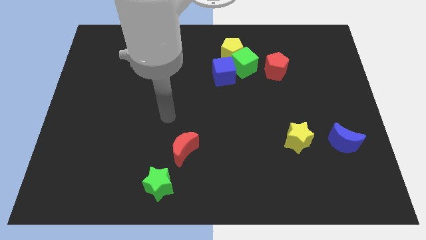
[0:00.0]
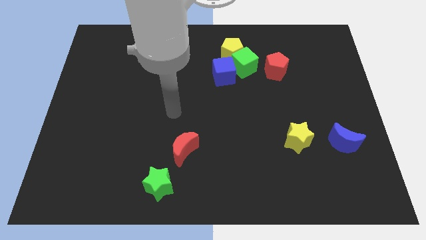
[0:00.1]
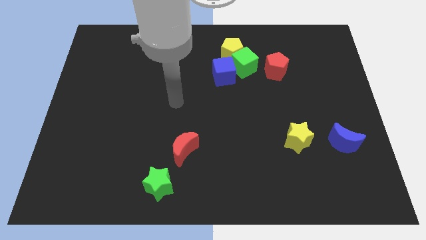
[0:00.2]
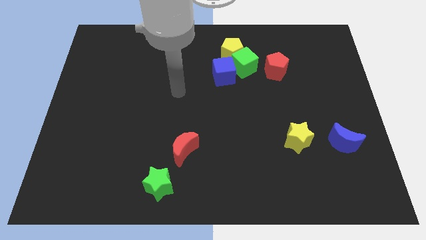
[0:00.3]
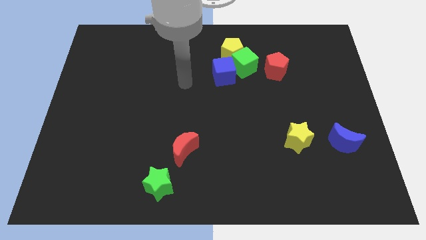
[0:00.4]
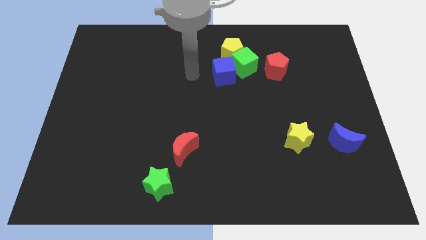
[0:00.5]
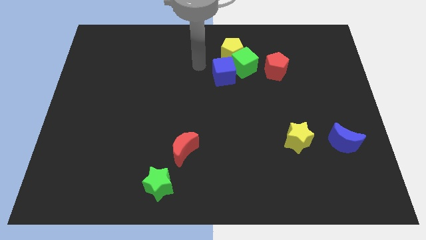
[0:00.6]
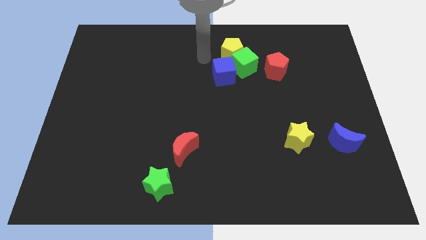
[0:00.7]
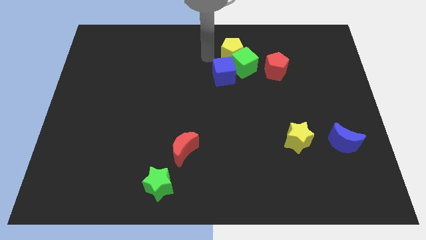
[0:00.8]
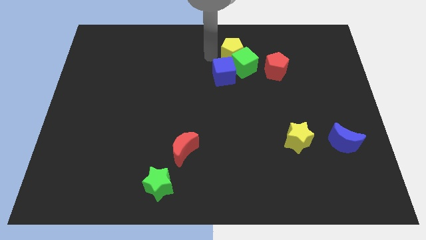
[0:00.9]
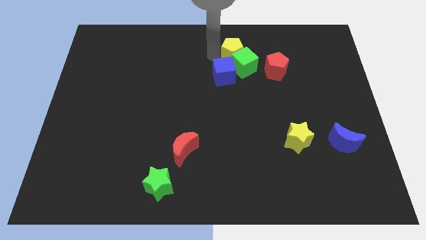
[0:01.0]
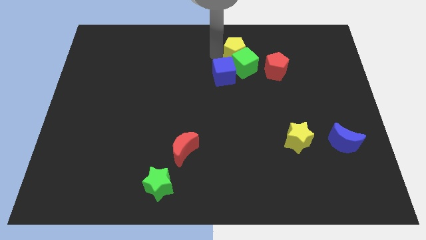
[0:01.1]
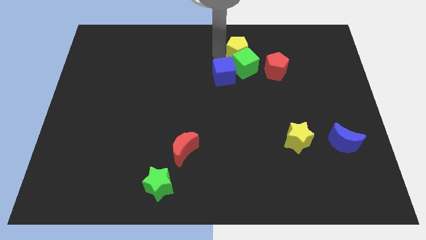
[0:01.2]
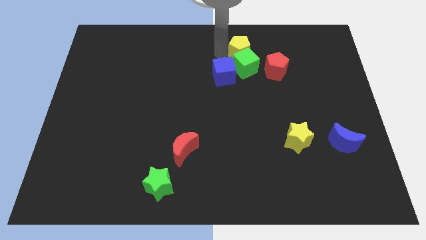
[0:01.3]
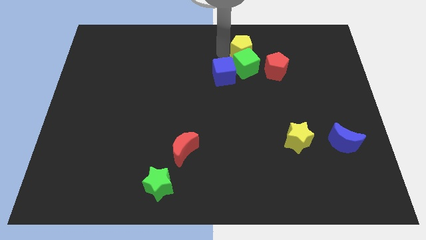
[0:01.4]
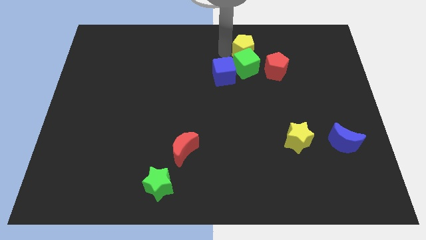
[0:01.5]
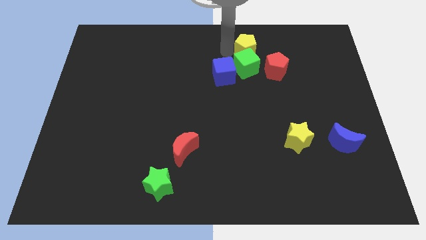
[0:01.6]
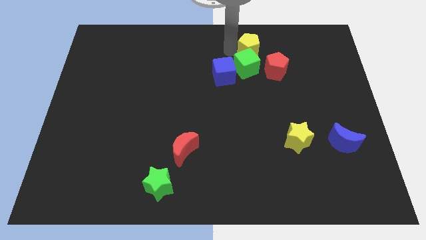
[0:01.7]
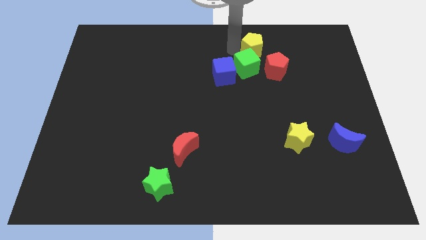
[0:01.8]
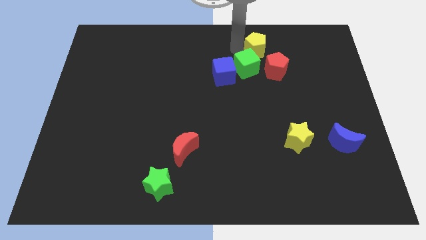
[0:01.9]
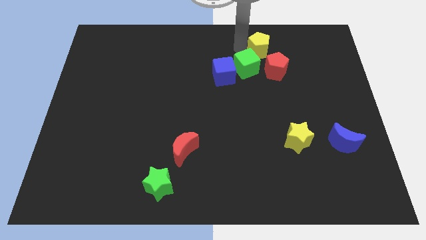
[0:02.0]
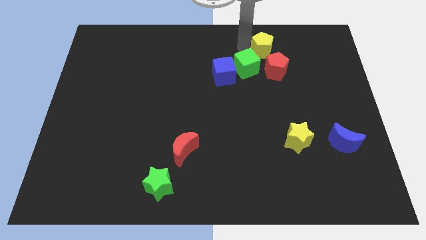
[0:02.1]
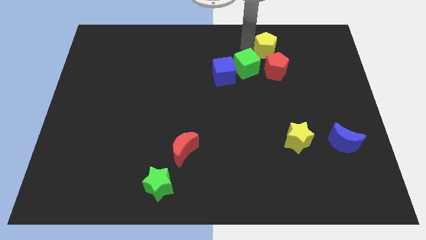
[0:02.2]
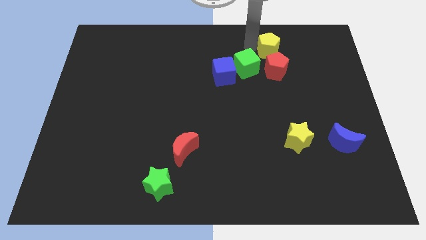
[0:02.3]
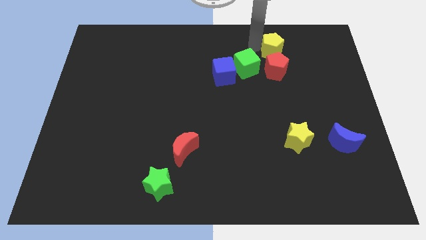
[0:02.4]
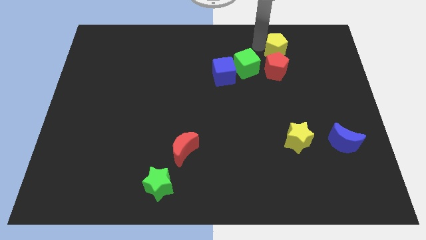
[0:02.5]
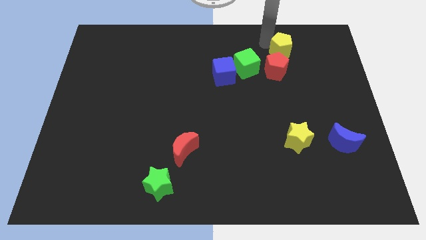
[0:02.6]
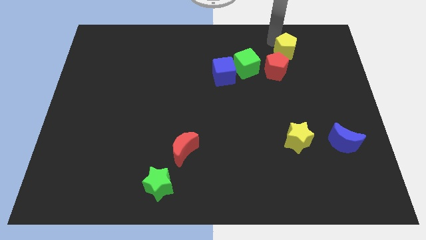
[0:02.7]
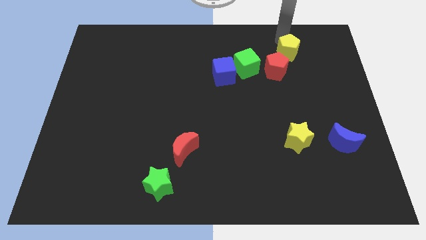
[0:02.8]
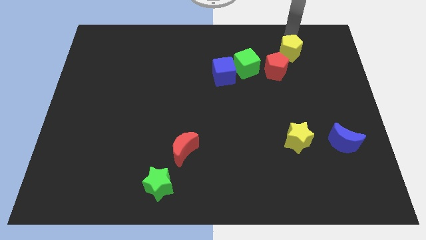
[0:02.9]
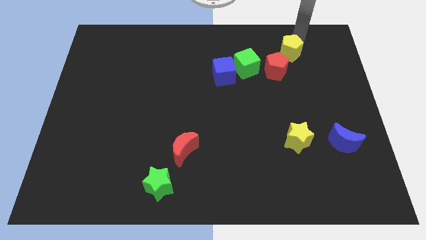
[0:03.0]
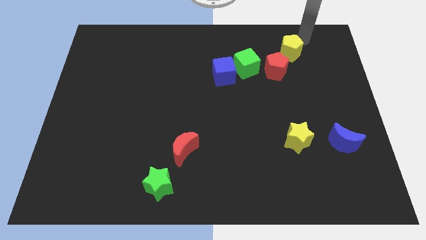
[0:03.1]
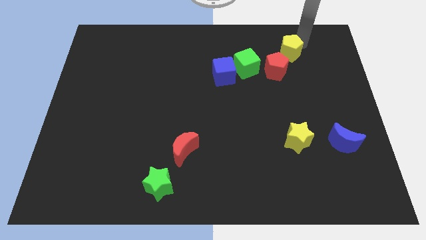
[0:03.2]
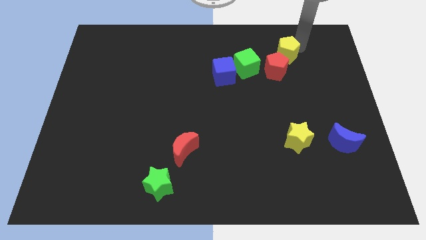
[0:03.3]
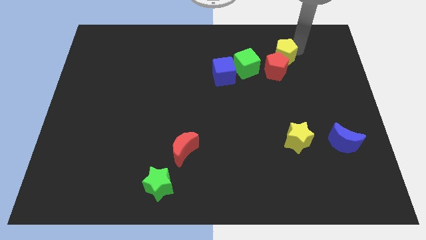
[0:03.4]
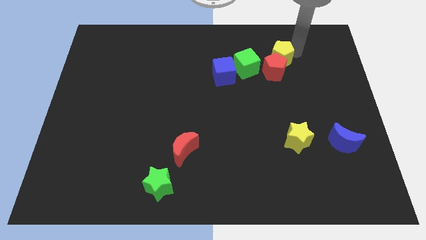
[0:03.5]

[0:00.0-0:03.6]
move the yellow pentagon a bit downwards and right

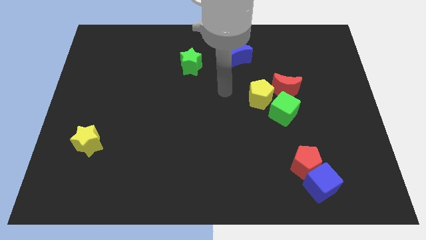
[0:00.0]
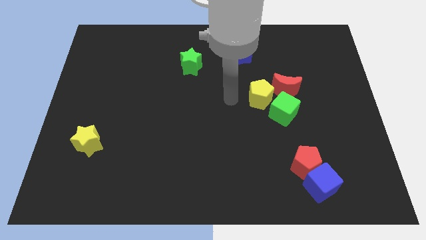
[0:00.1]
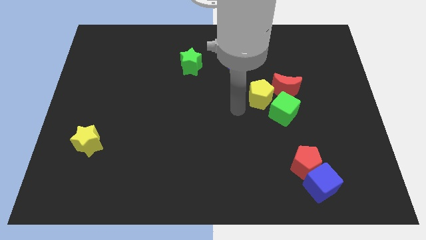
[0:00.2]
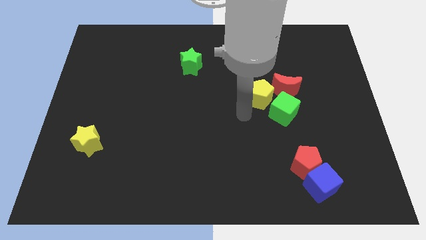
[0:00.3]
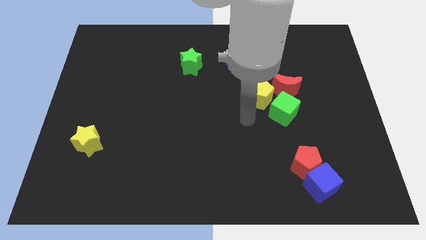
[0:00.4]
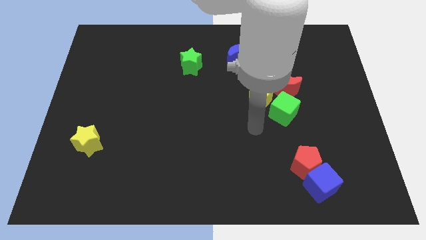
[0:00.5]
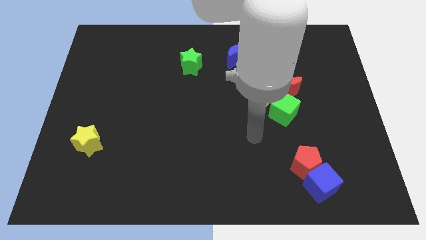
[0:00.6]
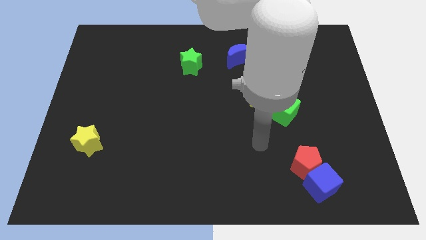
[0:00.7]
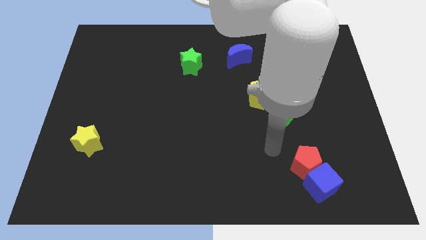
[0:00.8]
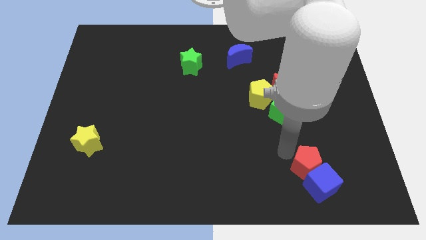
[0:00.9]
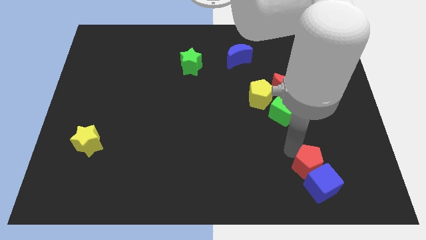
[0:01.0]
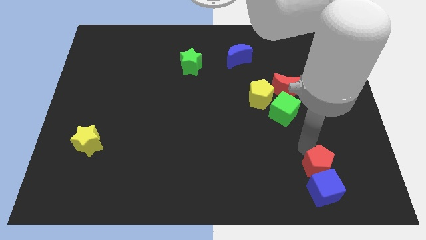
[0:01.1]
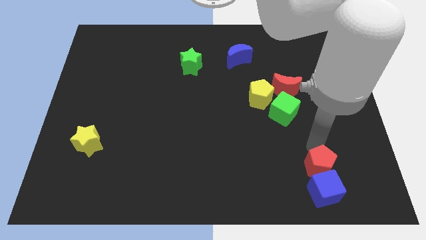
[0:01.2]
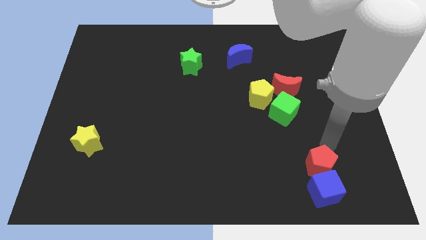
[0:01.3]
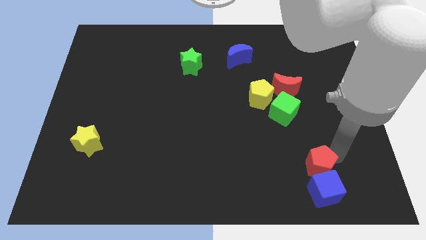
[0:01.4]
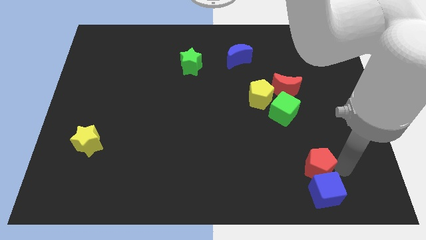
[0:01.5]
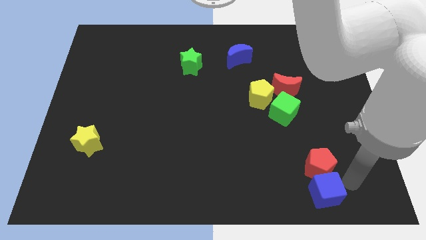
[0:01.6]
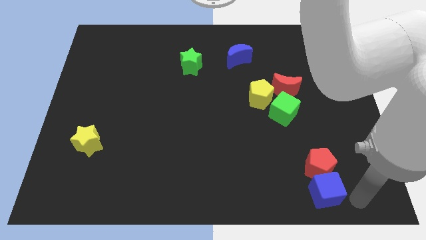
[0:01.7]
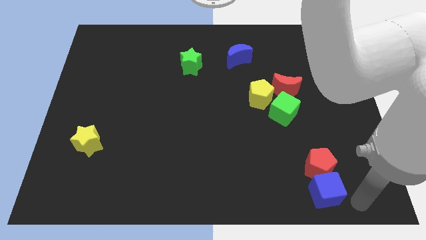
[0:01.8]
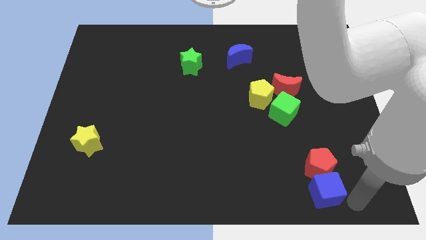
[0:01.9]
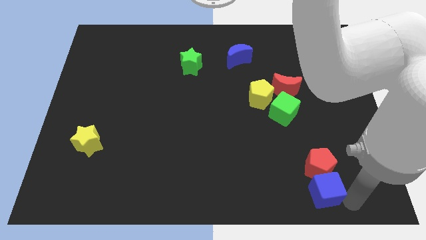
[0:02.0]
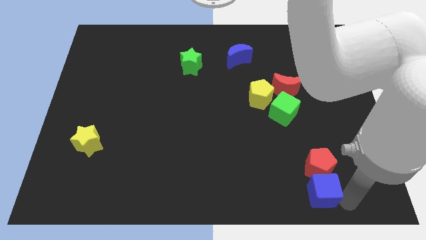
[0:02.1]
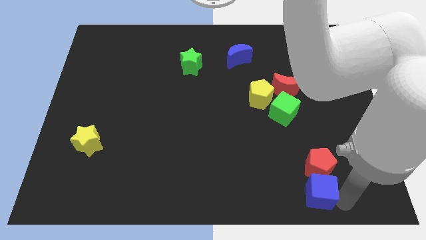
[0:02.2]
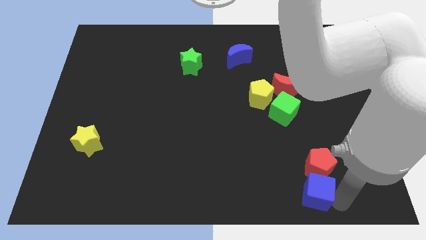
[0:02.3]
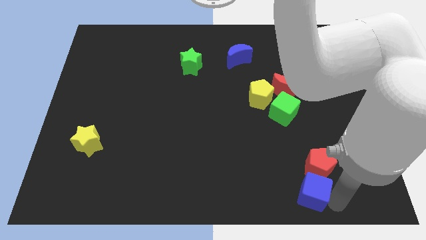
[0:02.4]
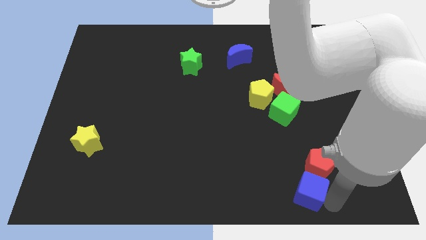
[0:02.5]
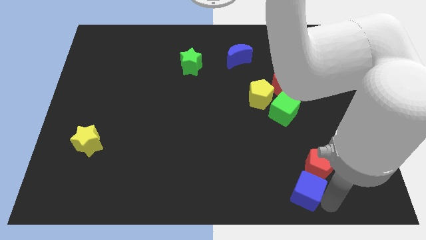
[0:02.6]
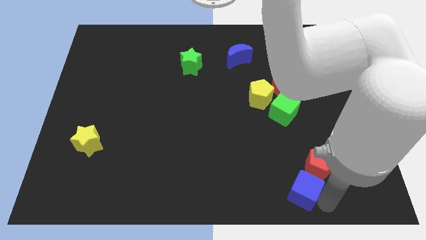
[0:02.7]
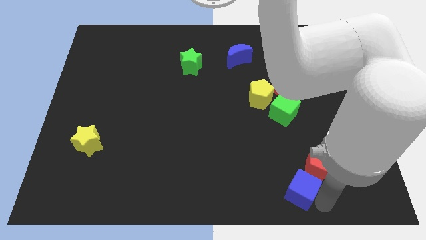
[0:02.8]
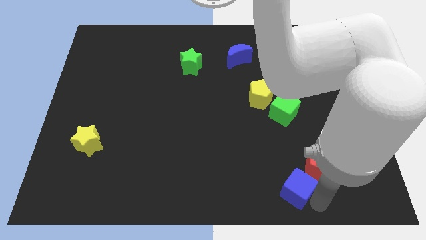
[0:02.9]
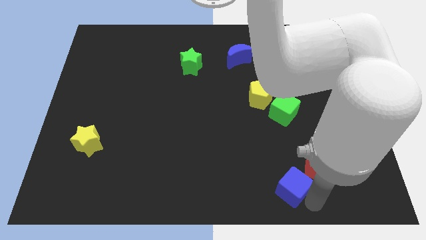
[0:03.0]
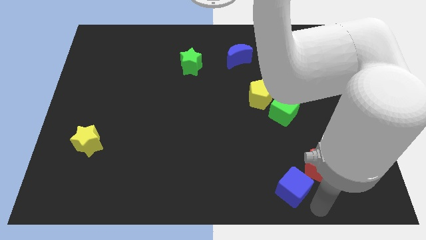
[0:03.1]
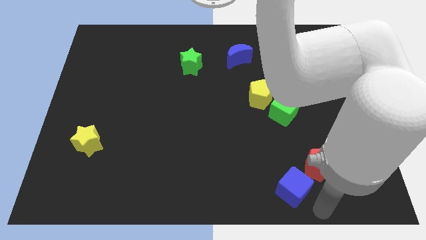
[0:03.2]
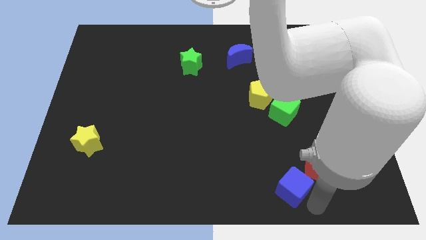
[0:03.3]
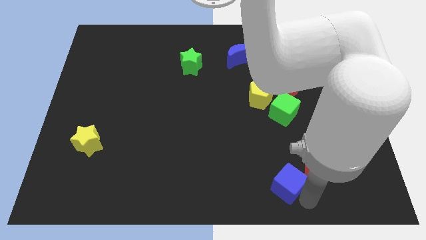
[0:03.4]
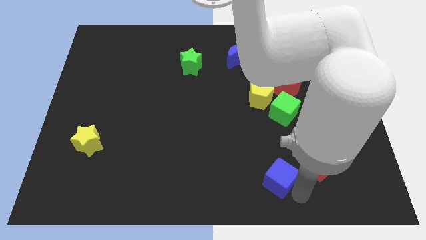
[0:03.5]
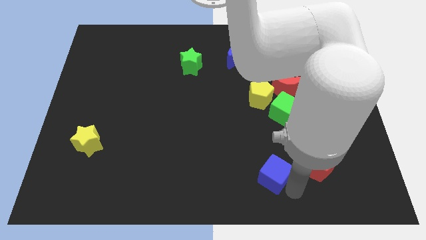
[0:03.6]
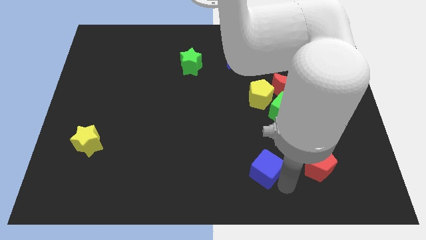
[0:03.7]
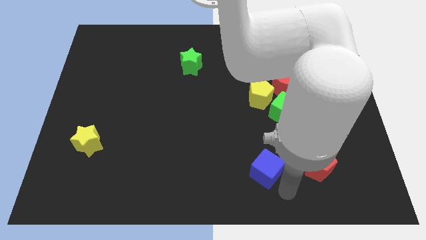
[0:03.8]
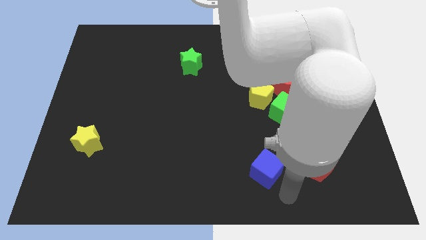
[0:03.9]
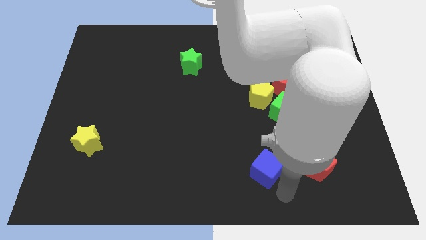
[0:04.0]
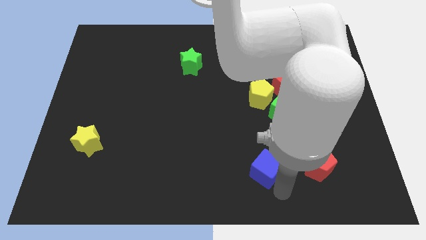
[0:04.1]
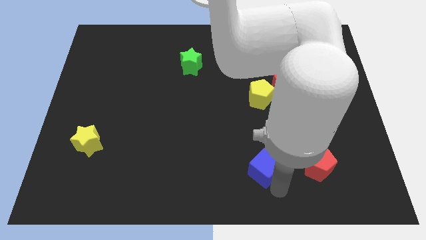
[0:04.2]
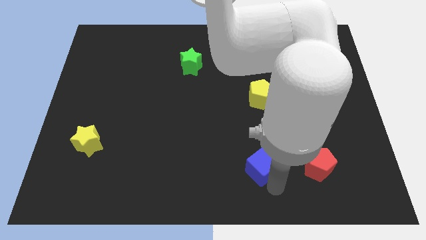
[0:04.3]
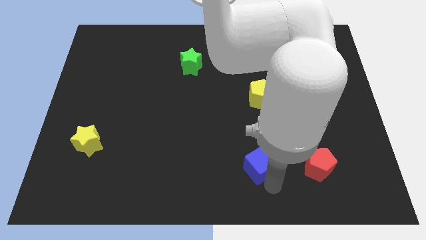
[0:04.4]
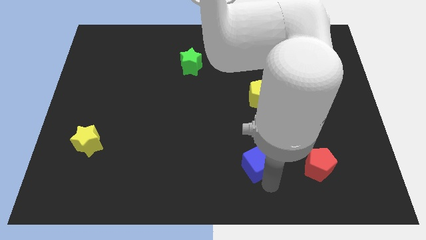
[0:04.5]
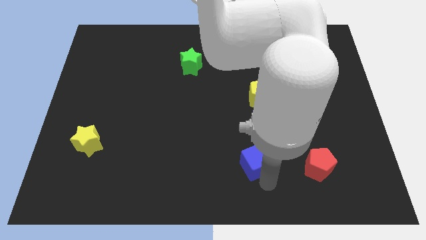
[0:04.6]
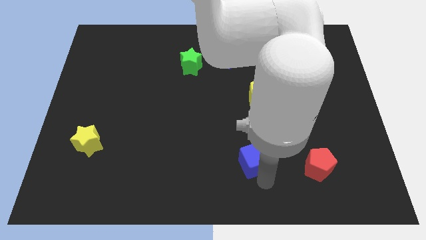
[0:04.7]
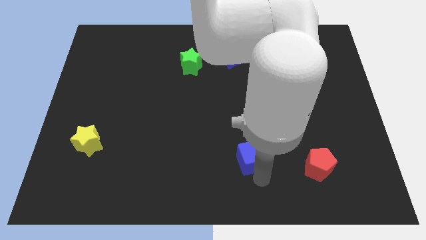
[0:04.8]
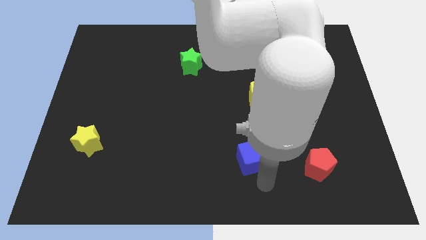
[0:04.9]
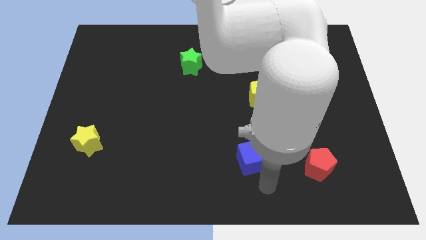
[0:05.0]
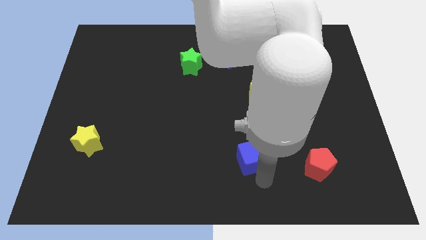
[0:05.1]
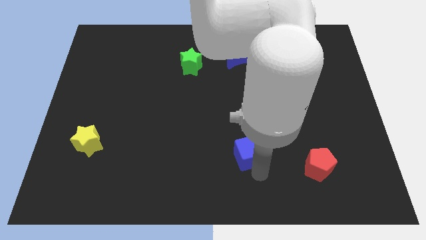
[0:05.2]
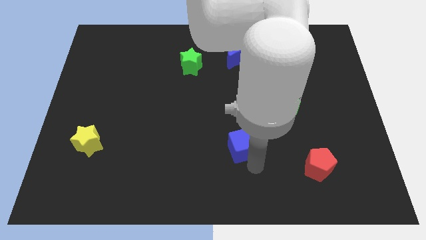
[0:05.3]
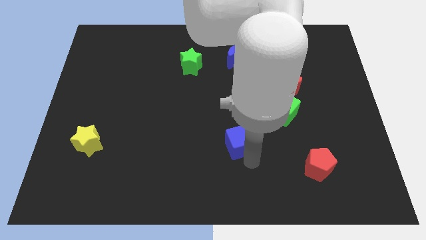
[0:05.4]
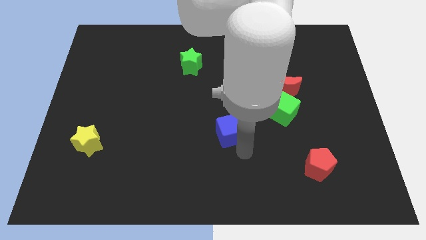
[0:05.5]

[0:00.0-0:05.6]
push the blue cube upwards and to the left
